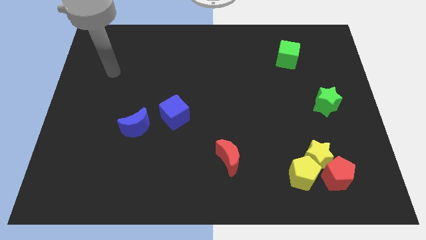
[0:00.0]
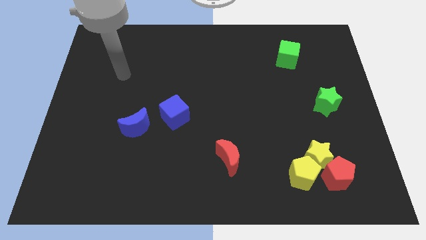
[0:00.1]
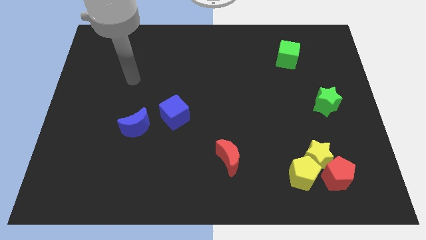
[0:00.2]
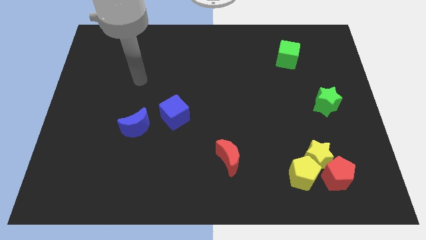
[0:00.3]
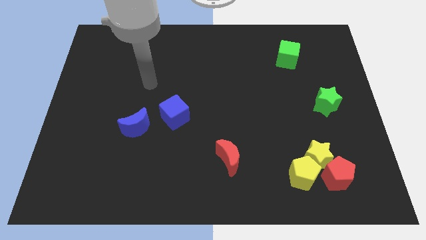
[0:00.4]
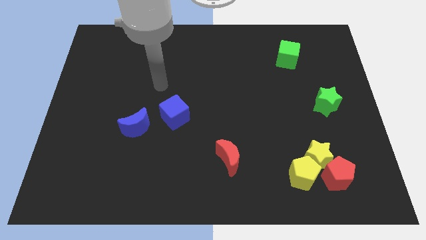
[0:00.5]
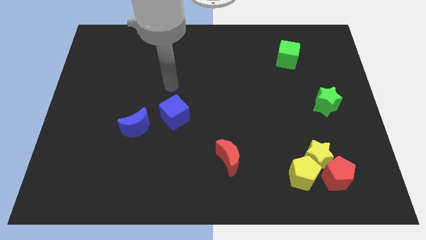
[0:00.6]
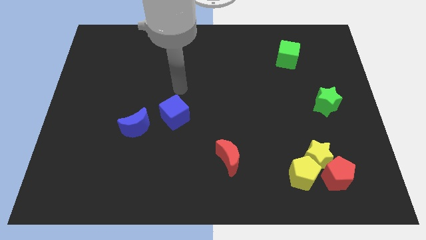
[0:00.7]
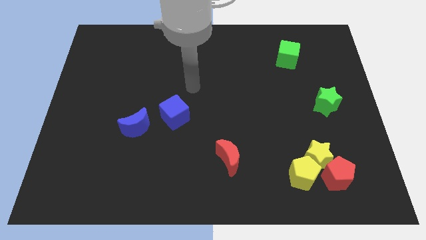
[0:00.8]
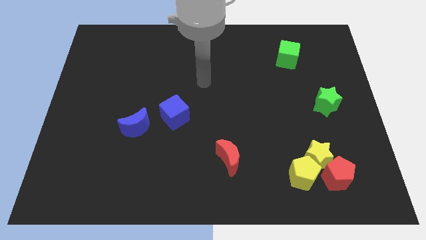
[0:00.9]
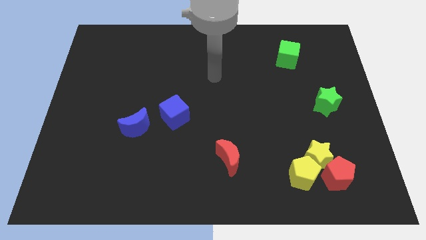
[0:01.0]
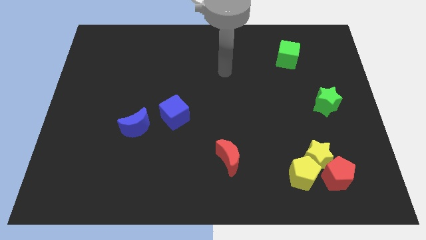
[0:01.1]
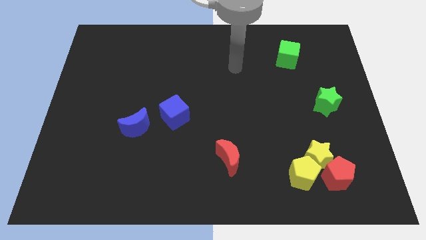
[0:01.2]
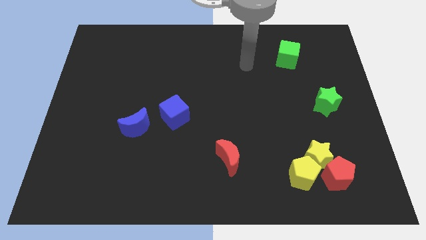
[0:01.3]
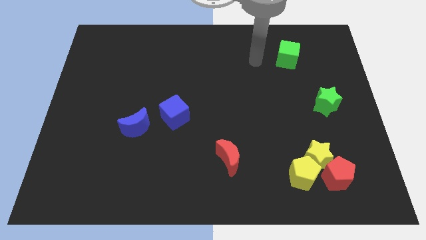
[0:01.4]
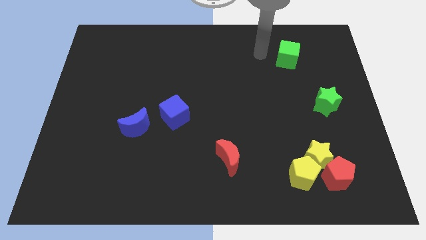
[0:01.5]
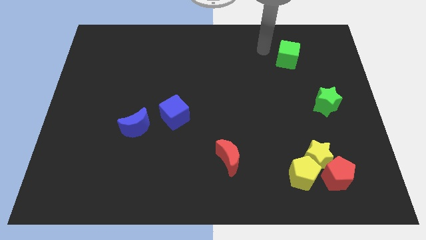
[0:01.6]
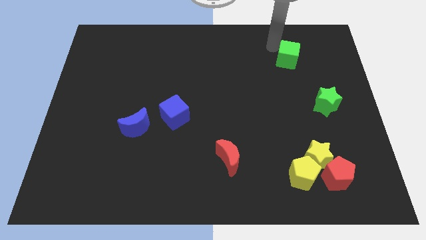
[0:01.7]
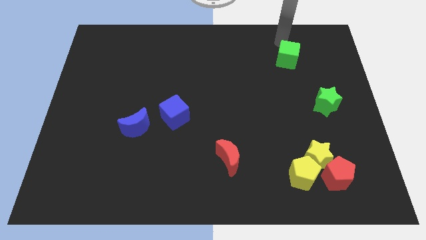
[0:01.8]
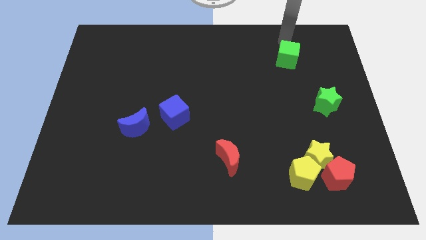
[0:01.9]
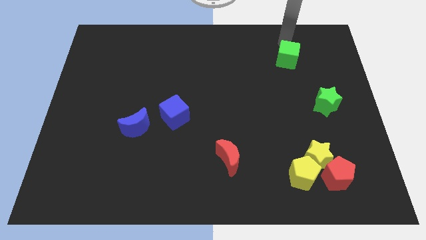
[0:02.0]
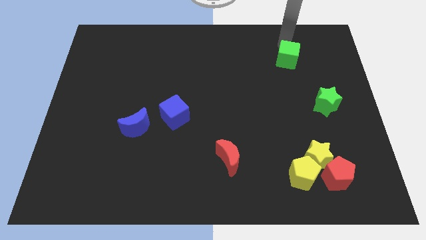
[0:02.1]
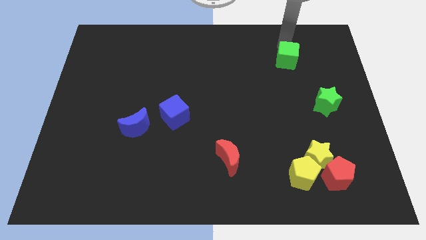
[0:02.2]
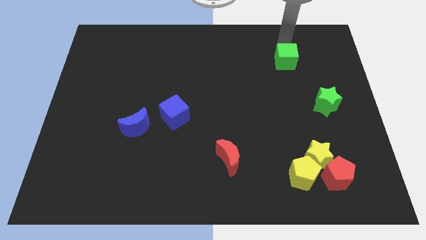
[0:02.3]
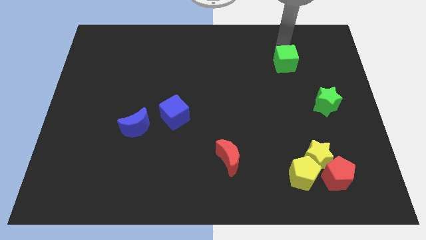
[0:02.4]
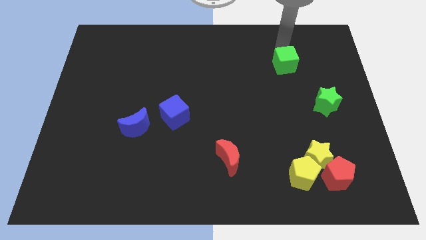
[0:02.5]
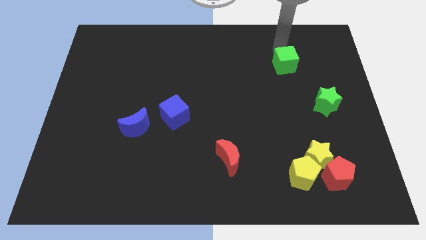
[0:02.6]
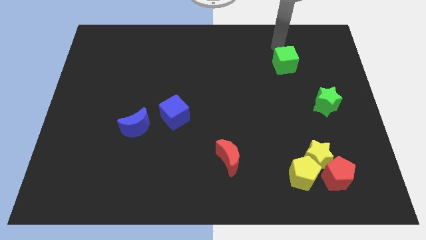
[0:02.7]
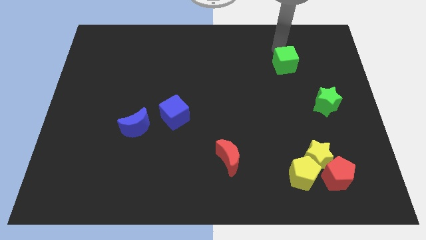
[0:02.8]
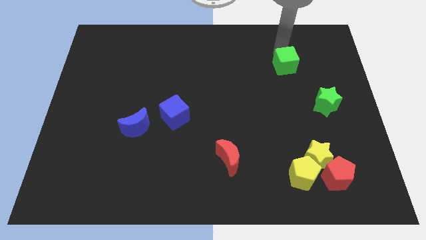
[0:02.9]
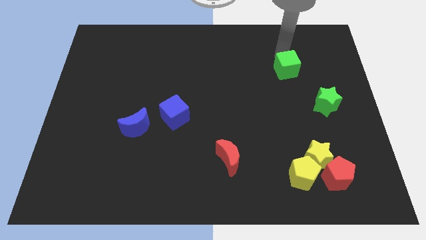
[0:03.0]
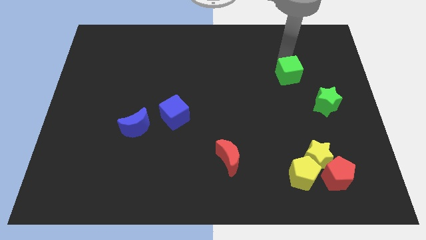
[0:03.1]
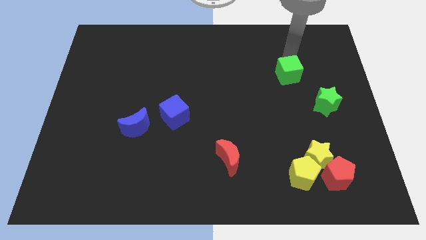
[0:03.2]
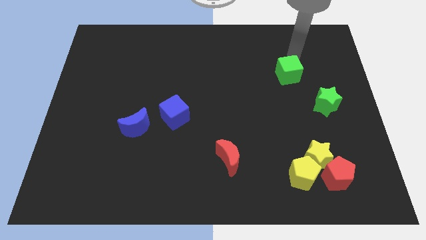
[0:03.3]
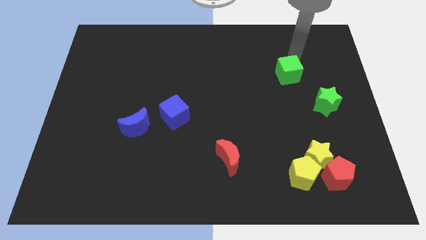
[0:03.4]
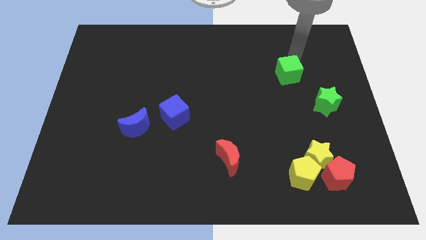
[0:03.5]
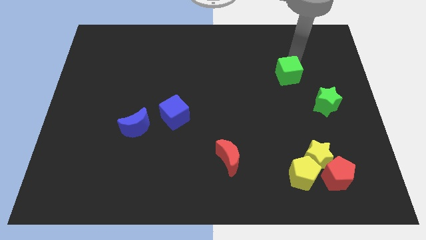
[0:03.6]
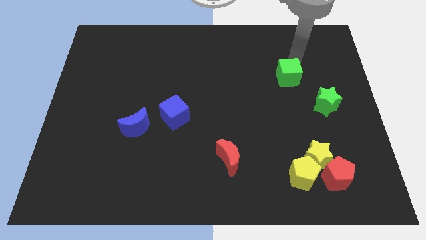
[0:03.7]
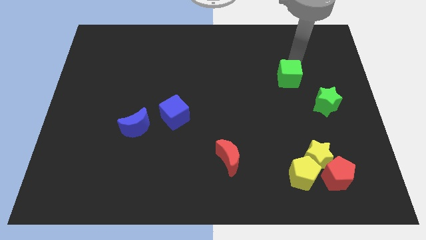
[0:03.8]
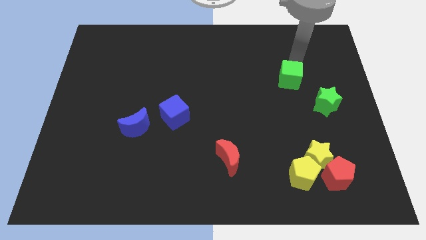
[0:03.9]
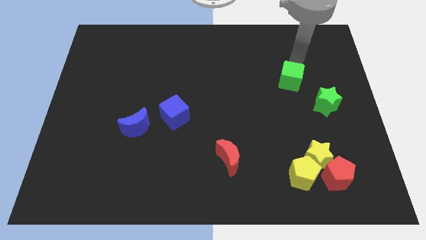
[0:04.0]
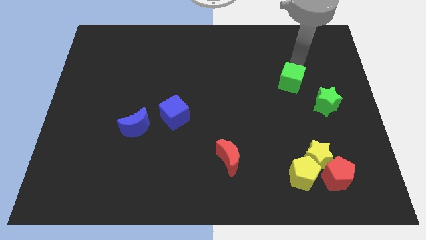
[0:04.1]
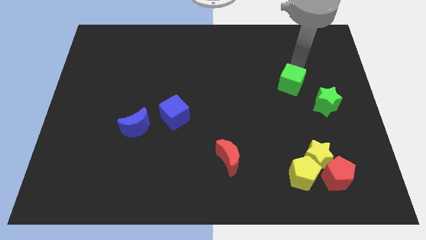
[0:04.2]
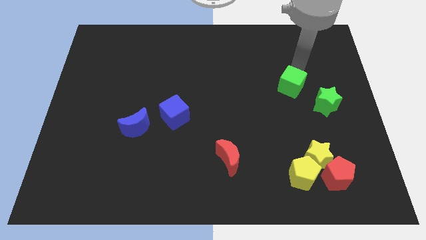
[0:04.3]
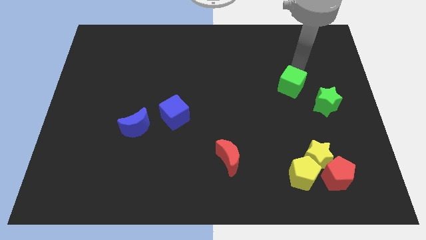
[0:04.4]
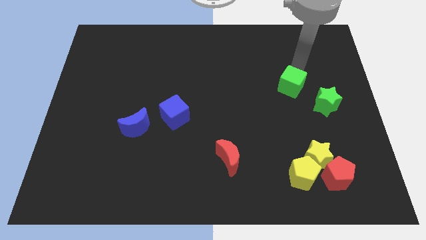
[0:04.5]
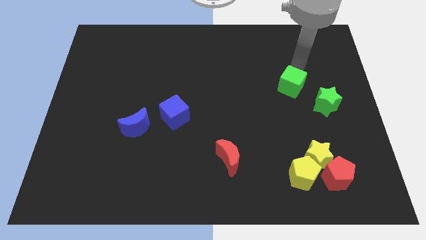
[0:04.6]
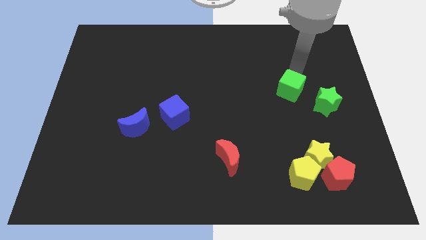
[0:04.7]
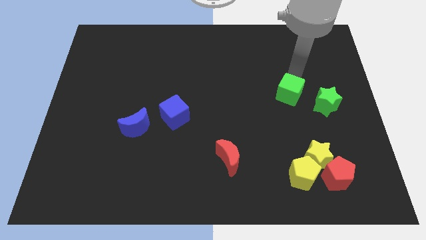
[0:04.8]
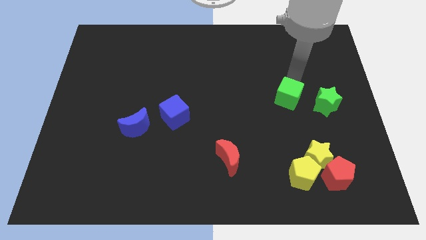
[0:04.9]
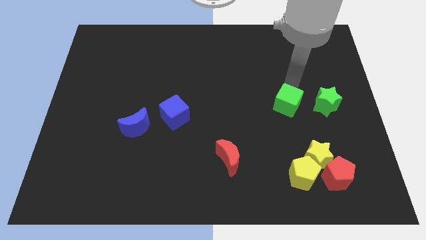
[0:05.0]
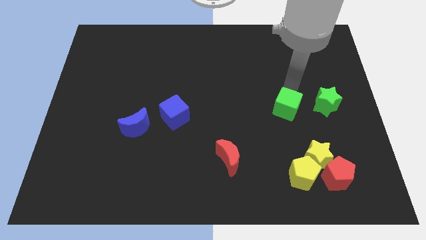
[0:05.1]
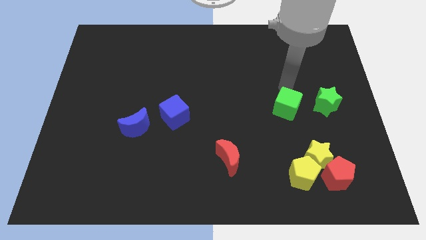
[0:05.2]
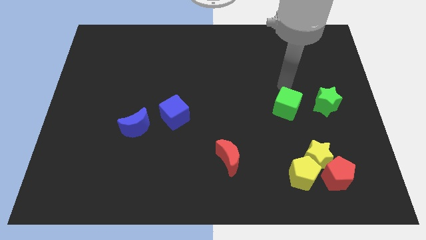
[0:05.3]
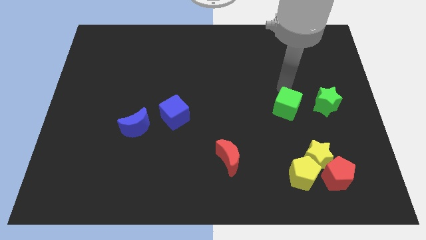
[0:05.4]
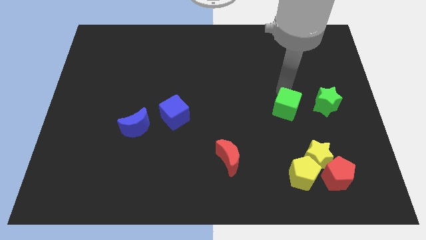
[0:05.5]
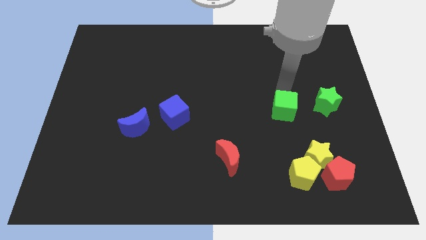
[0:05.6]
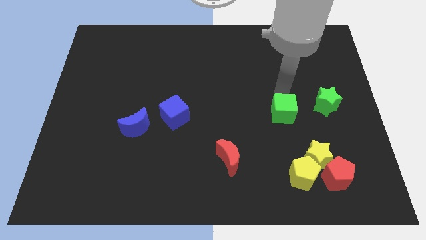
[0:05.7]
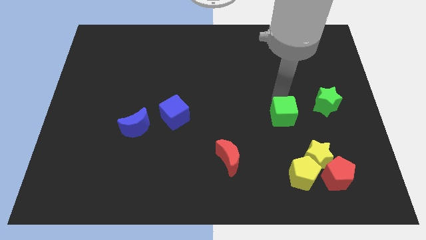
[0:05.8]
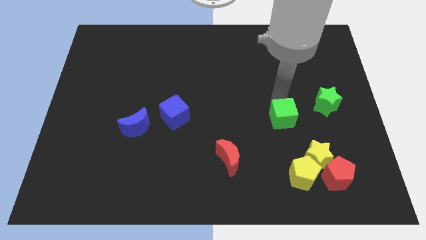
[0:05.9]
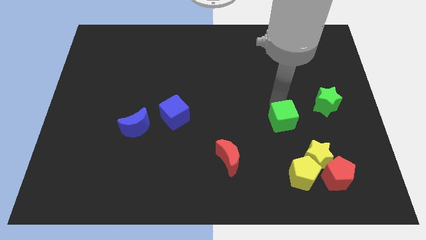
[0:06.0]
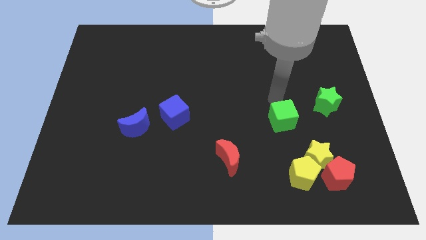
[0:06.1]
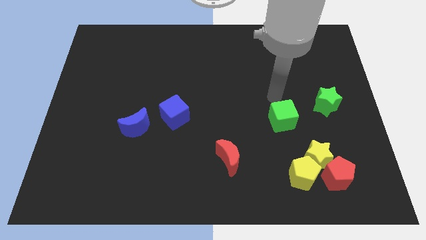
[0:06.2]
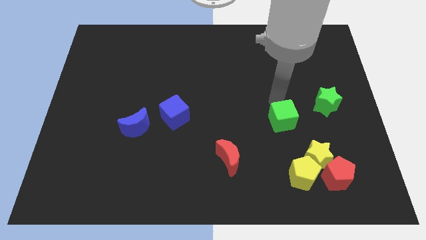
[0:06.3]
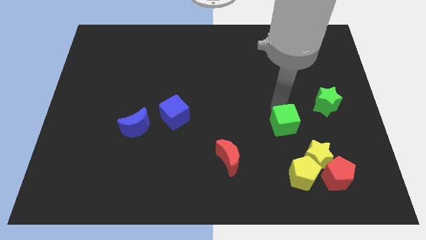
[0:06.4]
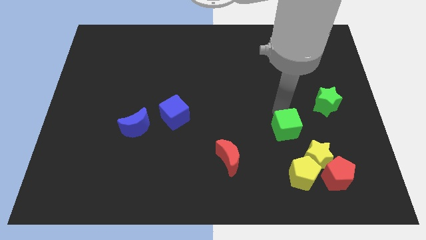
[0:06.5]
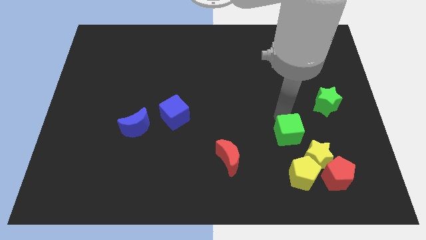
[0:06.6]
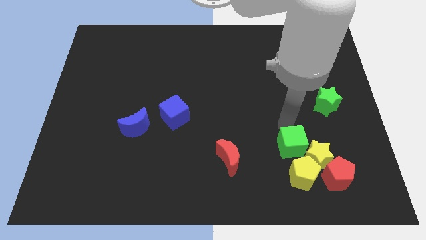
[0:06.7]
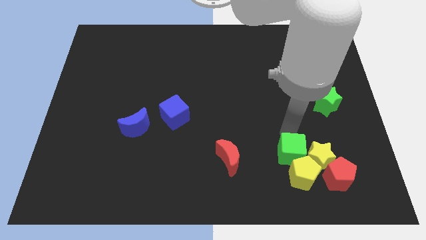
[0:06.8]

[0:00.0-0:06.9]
slide the green cube towards the yellow pentagon

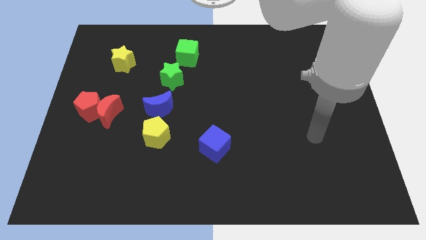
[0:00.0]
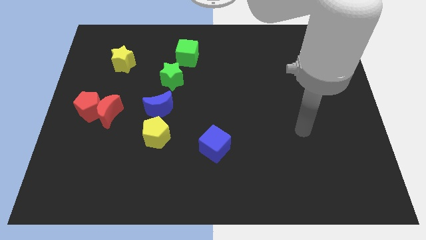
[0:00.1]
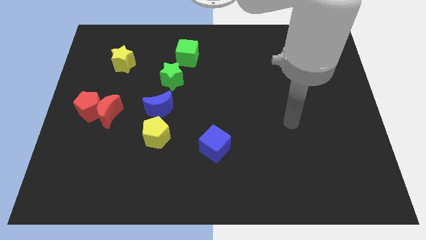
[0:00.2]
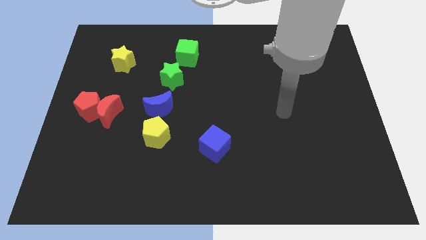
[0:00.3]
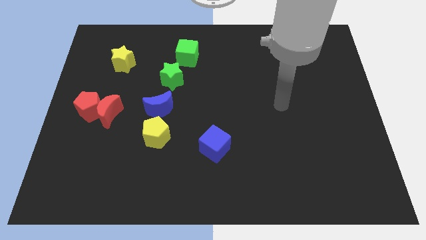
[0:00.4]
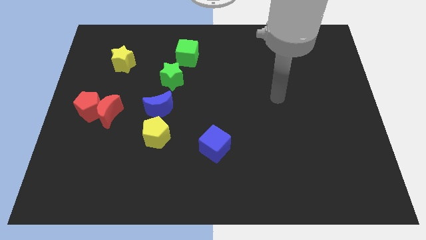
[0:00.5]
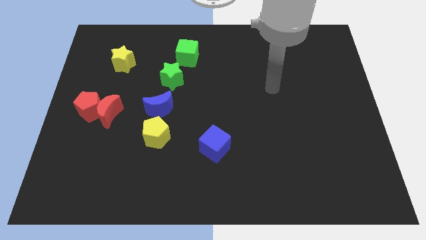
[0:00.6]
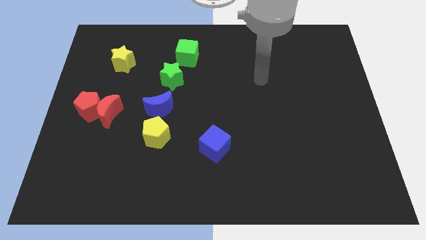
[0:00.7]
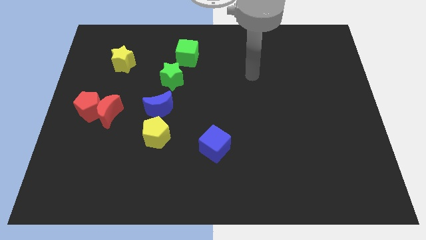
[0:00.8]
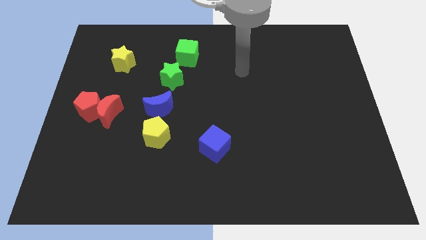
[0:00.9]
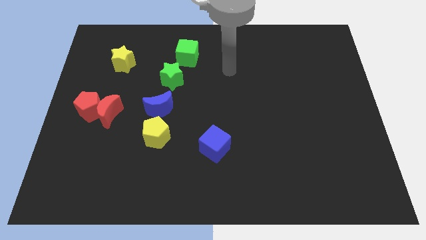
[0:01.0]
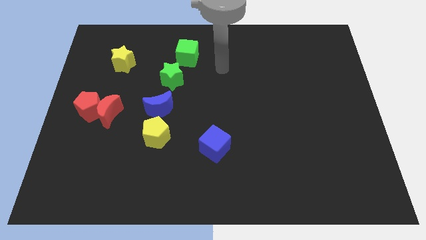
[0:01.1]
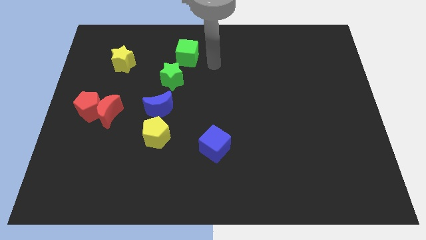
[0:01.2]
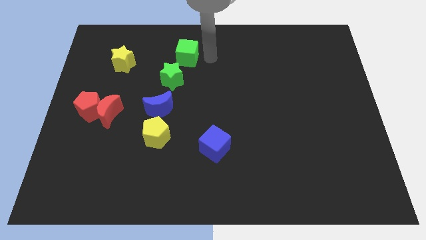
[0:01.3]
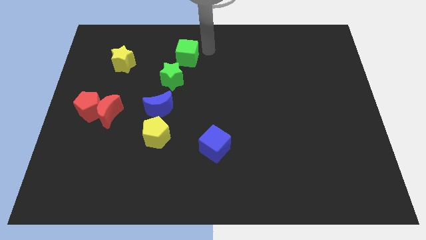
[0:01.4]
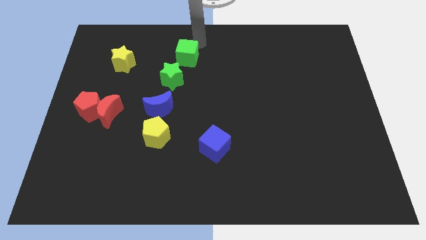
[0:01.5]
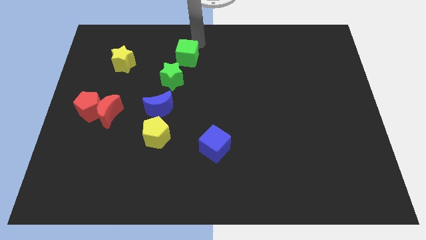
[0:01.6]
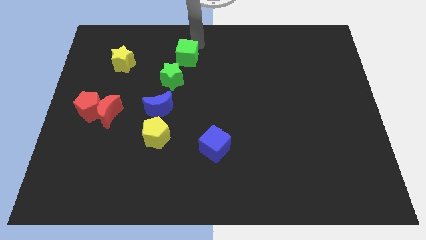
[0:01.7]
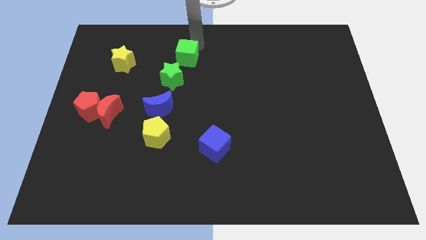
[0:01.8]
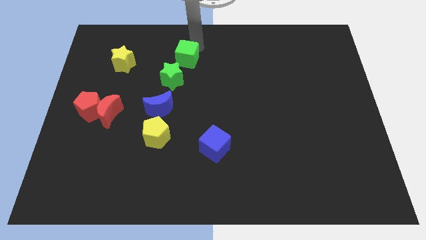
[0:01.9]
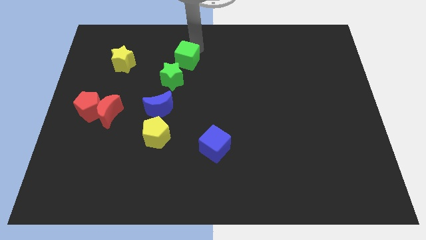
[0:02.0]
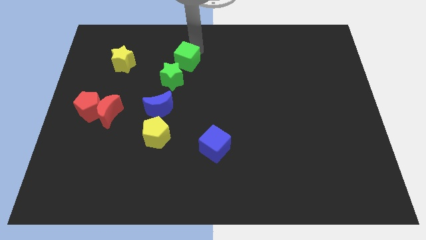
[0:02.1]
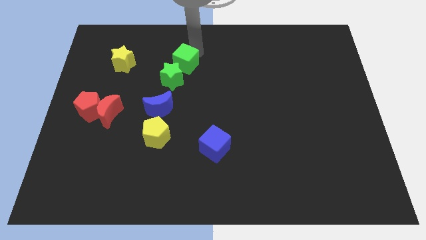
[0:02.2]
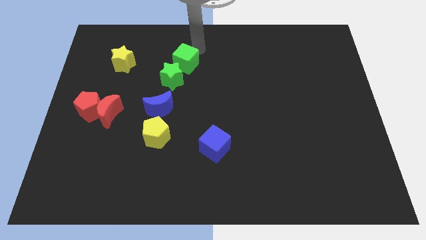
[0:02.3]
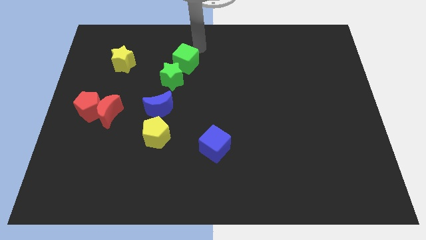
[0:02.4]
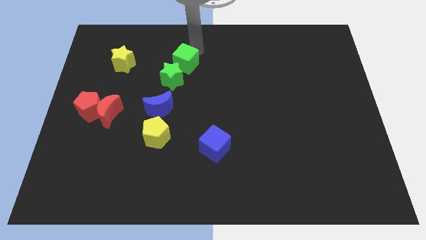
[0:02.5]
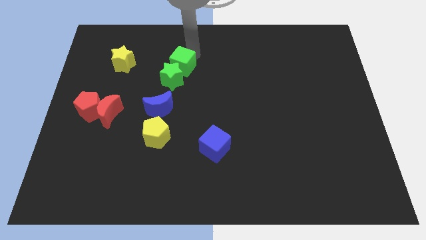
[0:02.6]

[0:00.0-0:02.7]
move the green cube close to the green star
